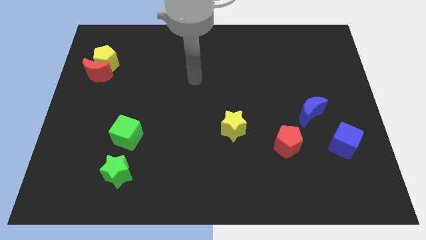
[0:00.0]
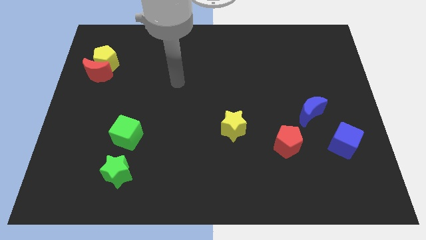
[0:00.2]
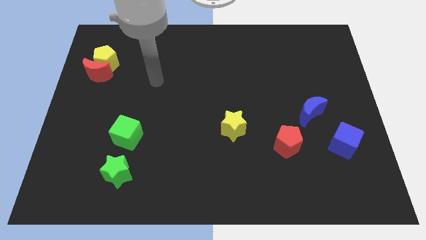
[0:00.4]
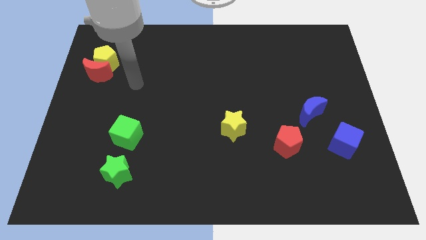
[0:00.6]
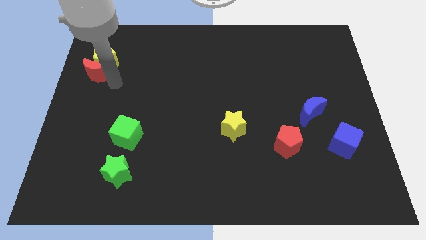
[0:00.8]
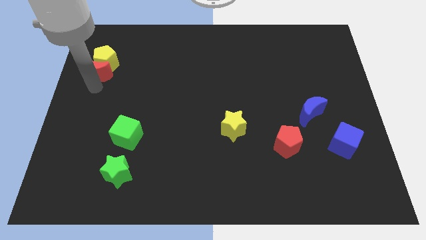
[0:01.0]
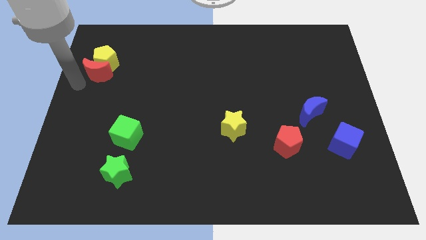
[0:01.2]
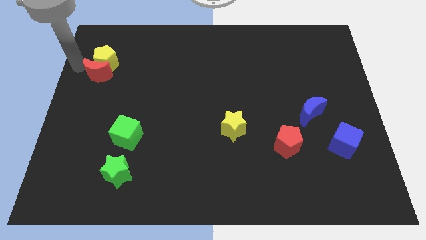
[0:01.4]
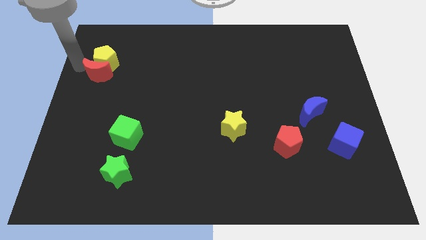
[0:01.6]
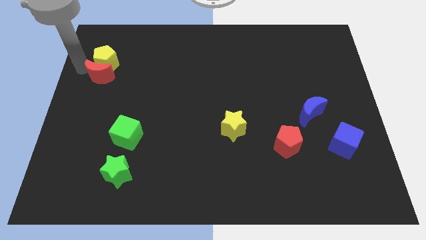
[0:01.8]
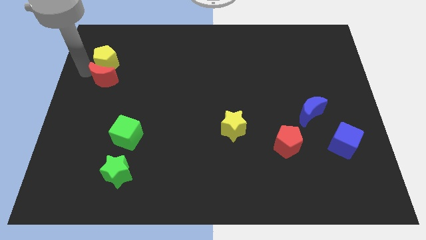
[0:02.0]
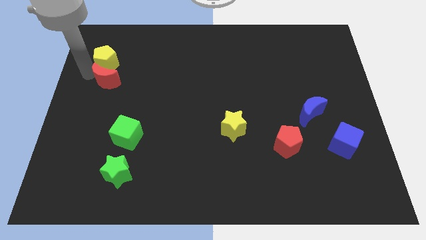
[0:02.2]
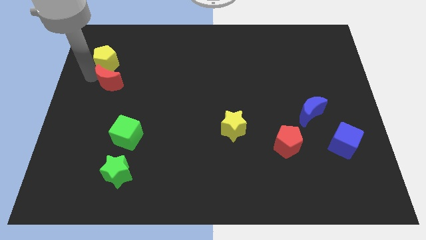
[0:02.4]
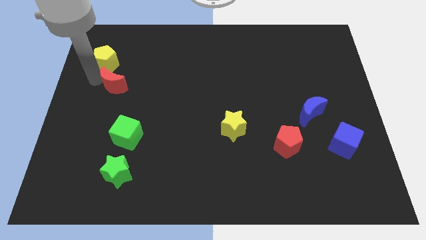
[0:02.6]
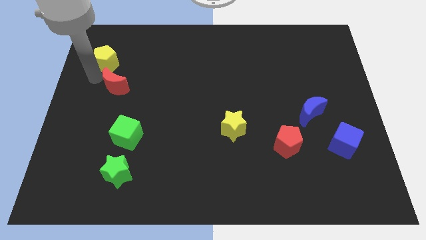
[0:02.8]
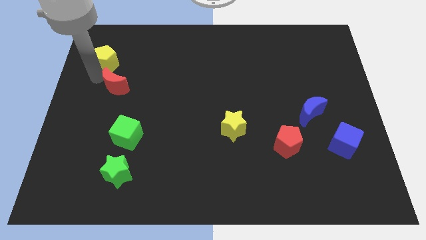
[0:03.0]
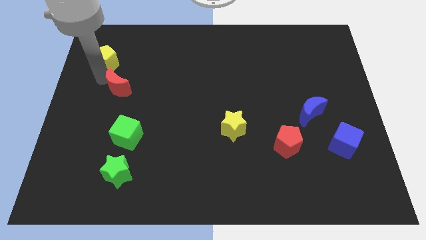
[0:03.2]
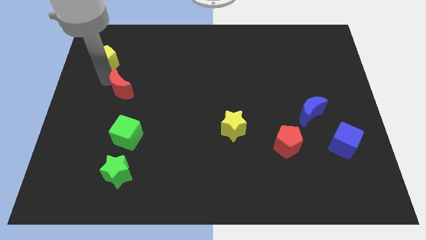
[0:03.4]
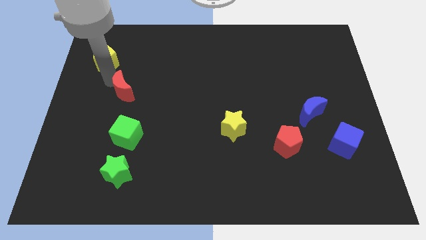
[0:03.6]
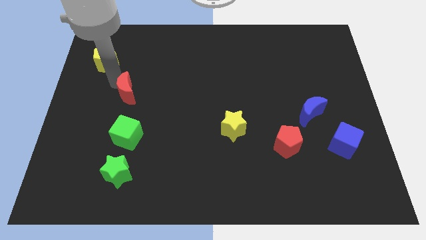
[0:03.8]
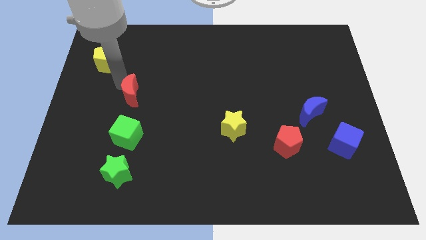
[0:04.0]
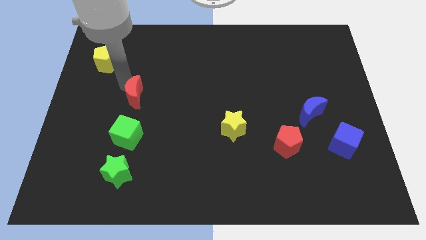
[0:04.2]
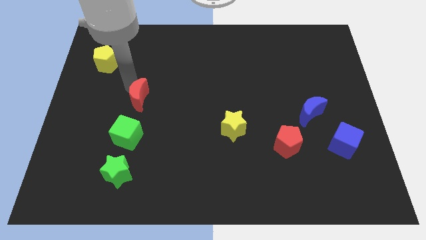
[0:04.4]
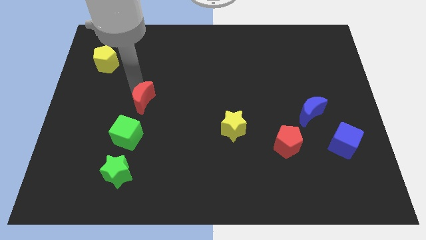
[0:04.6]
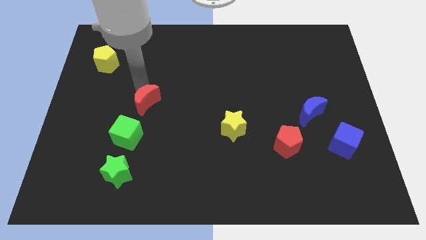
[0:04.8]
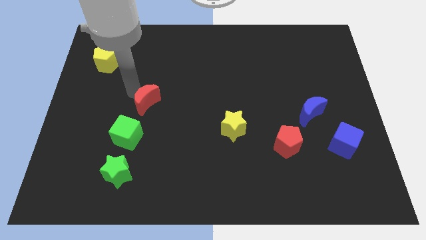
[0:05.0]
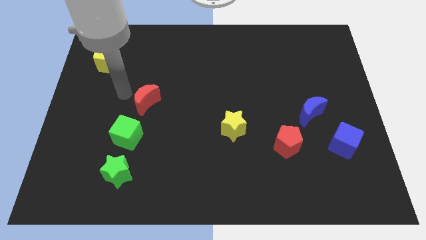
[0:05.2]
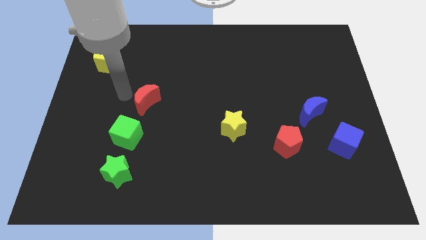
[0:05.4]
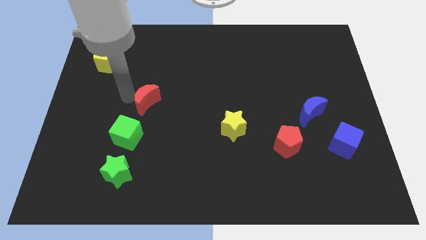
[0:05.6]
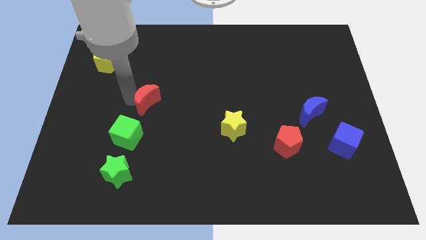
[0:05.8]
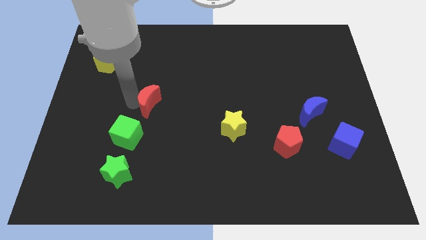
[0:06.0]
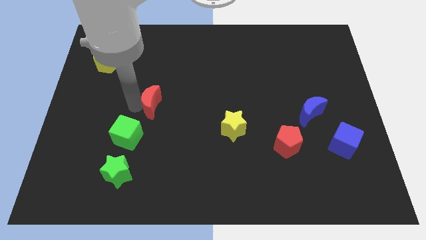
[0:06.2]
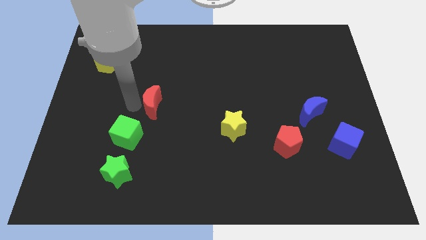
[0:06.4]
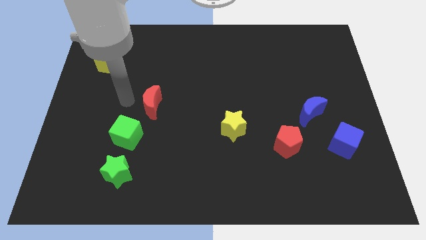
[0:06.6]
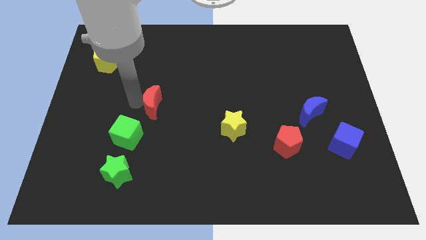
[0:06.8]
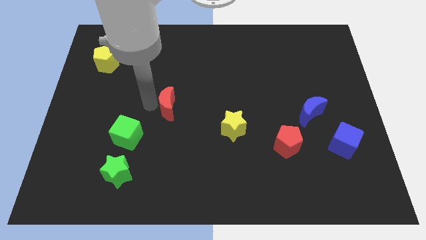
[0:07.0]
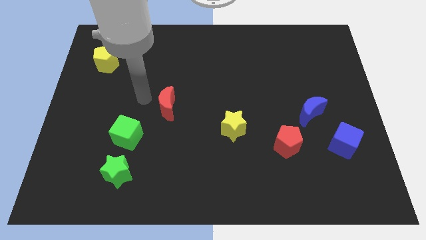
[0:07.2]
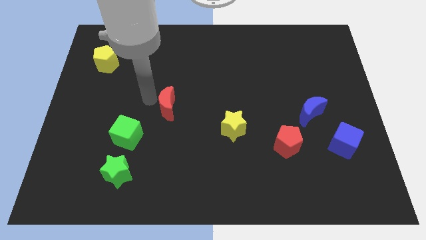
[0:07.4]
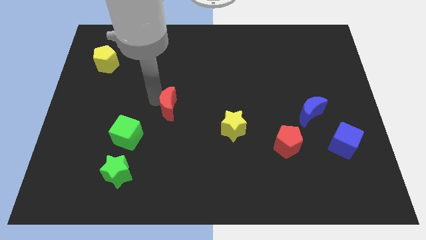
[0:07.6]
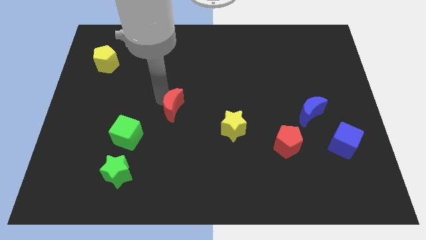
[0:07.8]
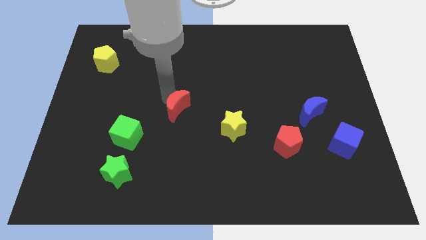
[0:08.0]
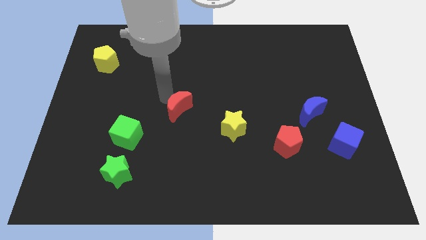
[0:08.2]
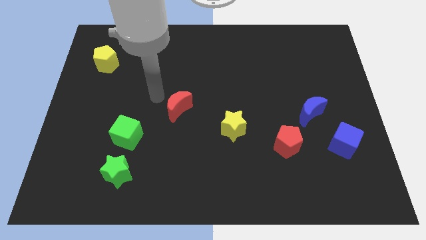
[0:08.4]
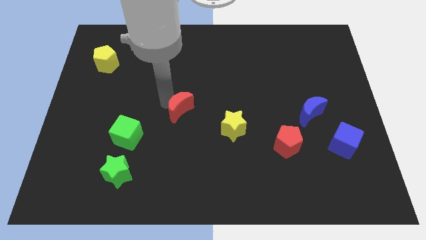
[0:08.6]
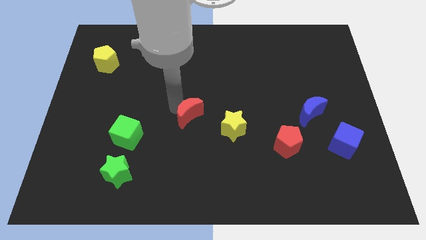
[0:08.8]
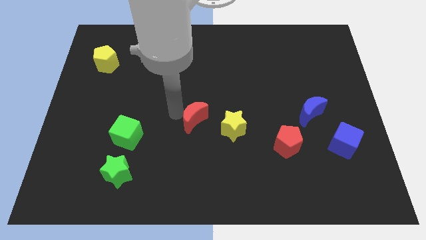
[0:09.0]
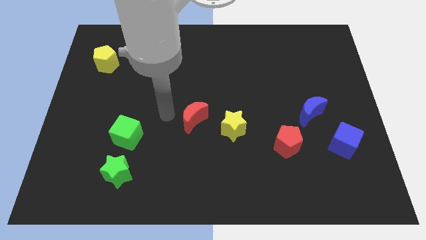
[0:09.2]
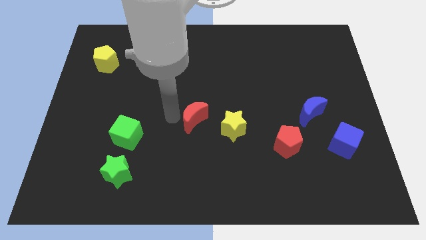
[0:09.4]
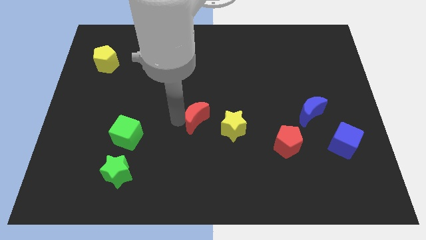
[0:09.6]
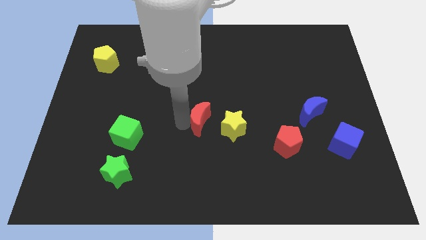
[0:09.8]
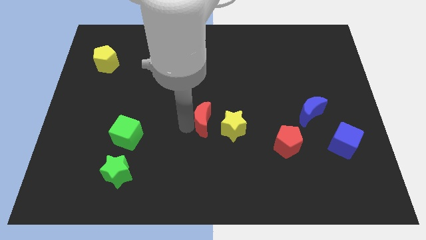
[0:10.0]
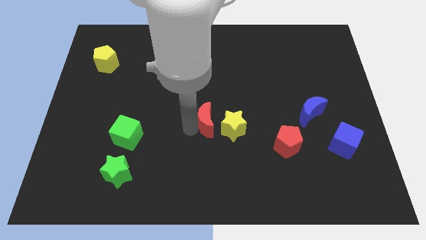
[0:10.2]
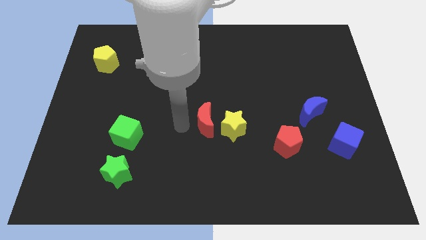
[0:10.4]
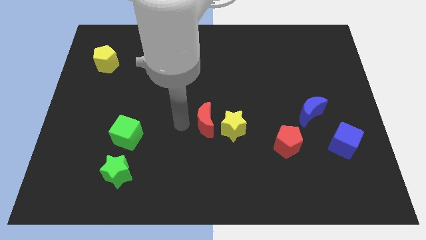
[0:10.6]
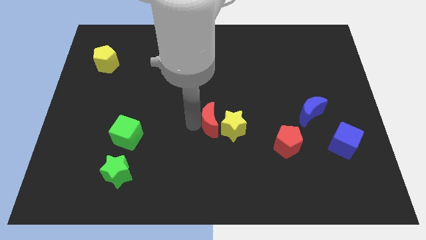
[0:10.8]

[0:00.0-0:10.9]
slide the red moon towards the yellow star

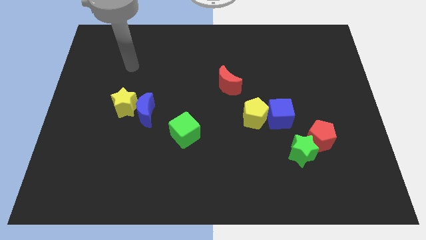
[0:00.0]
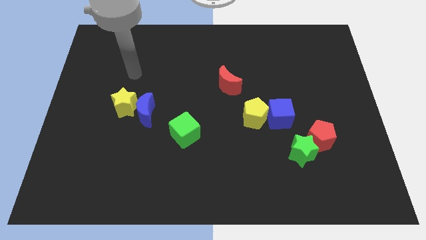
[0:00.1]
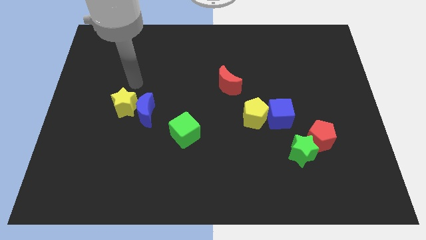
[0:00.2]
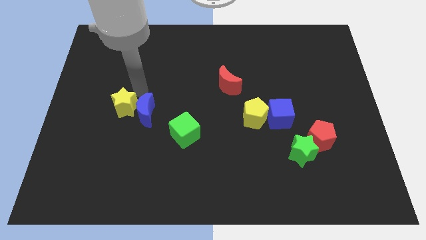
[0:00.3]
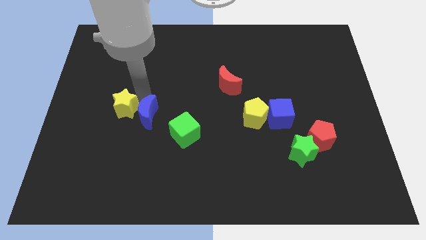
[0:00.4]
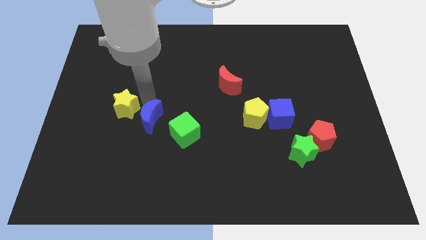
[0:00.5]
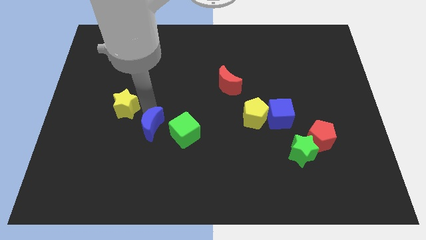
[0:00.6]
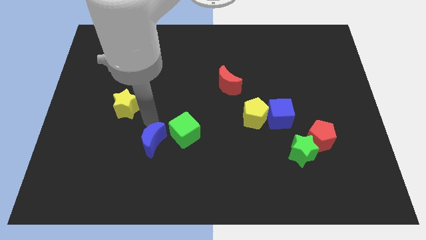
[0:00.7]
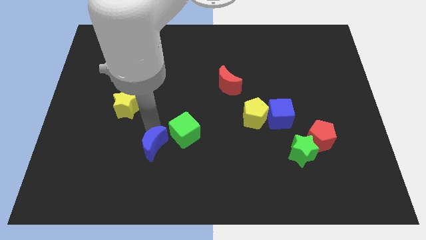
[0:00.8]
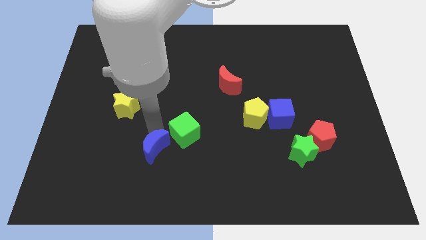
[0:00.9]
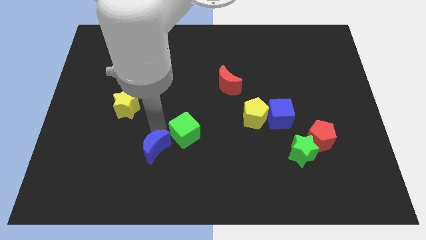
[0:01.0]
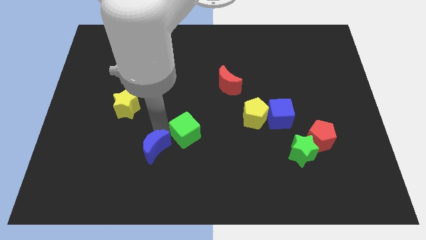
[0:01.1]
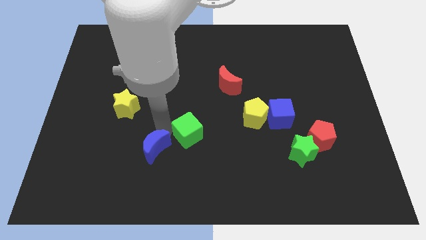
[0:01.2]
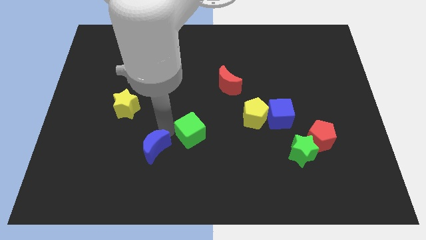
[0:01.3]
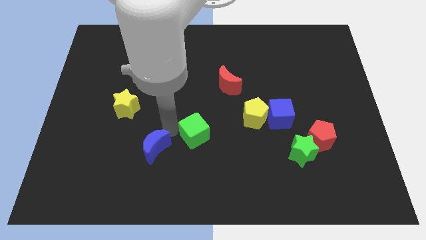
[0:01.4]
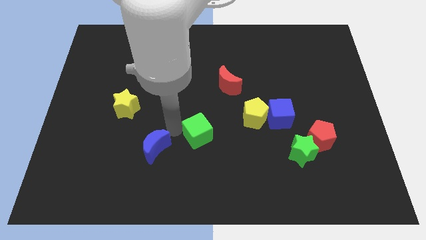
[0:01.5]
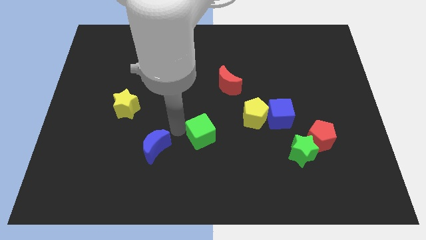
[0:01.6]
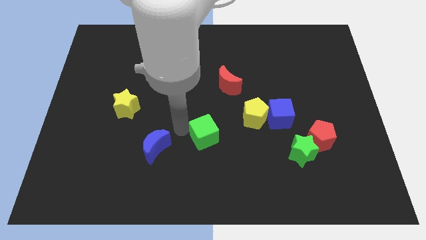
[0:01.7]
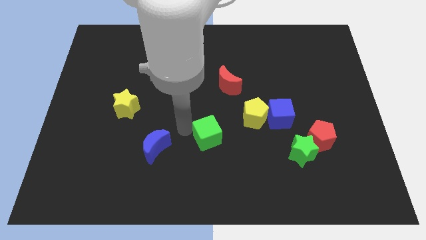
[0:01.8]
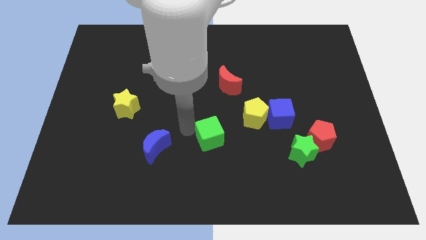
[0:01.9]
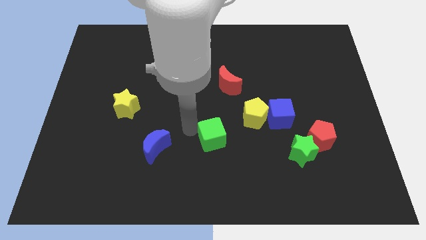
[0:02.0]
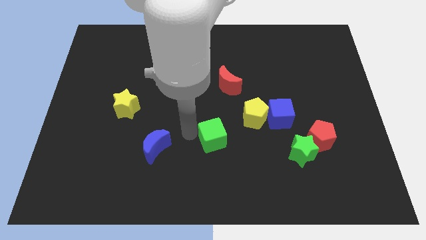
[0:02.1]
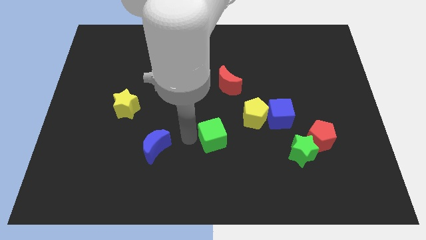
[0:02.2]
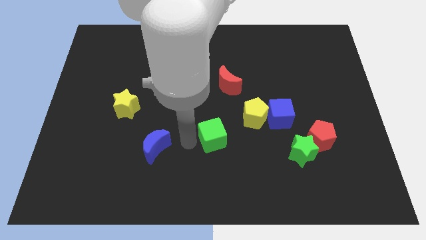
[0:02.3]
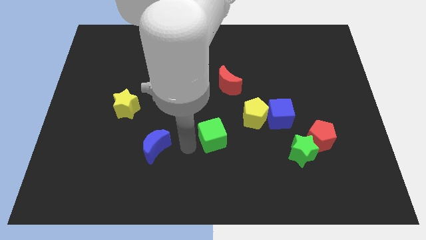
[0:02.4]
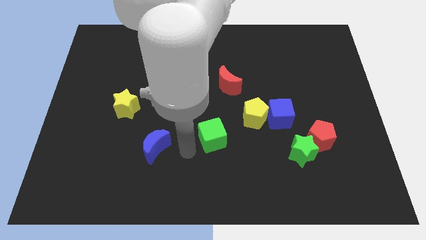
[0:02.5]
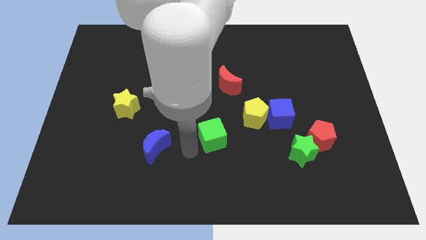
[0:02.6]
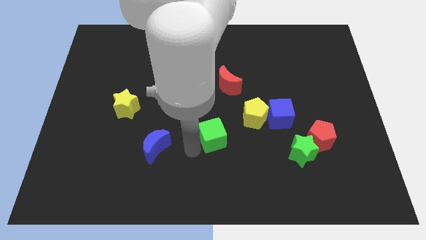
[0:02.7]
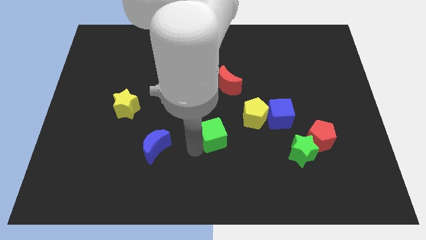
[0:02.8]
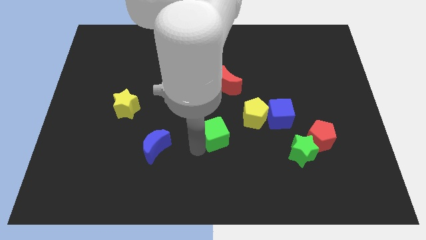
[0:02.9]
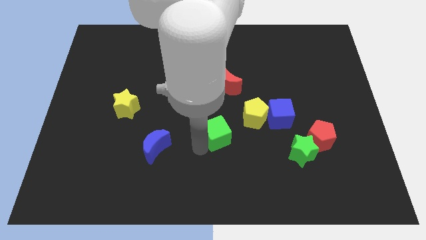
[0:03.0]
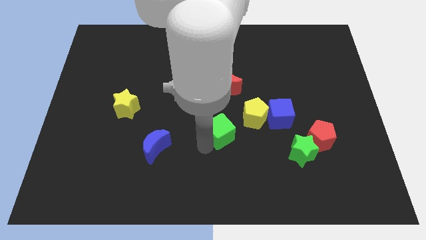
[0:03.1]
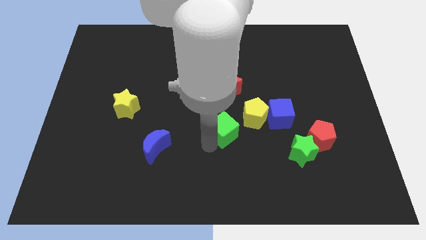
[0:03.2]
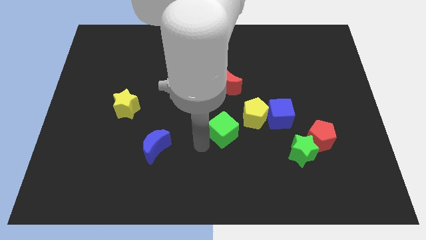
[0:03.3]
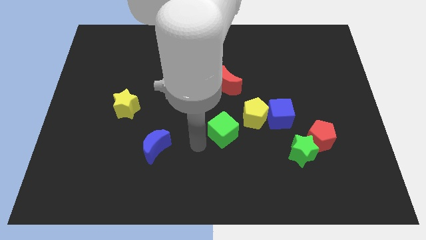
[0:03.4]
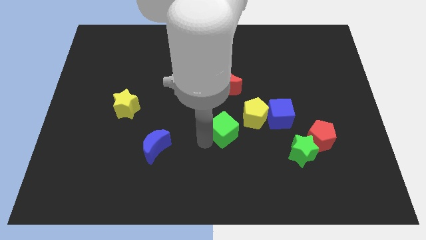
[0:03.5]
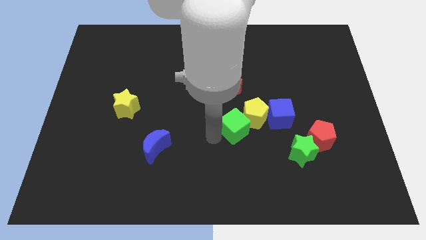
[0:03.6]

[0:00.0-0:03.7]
push the green cube next to the yellow pentagon
